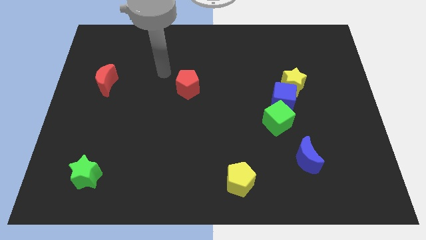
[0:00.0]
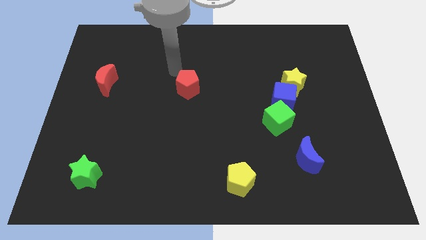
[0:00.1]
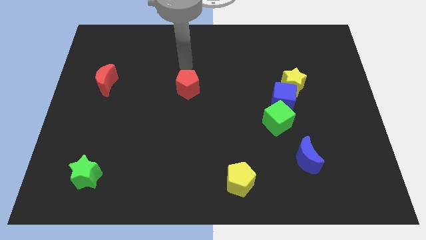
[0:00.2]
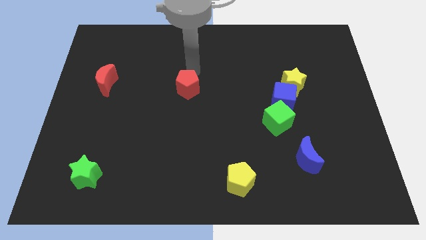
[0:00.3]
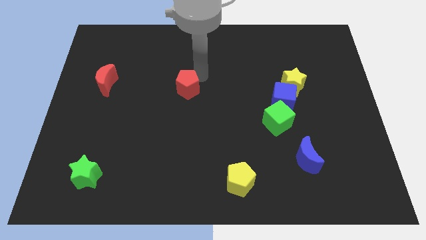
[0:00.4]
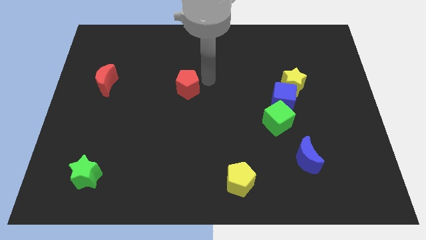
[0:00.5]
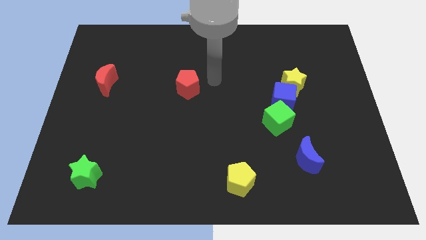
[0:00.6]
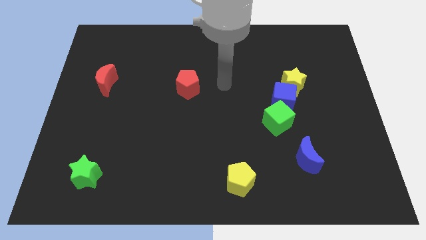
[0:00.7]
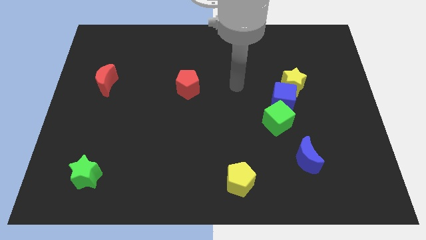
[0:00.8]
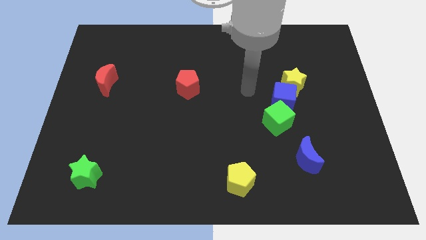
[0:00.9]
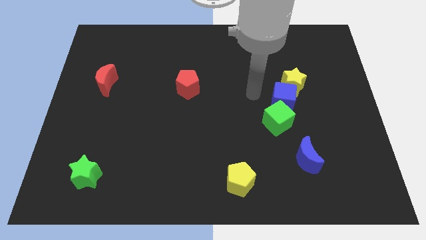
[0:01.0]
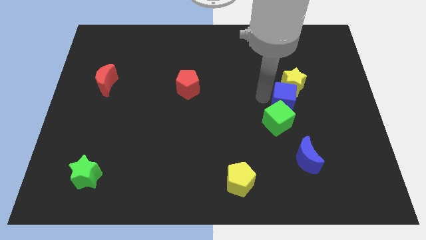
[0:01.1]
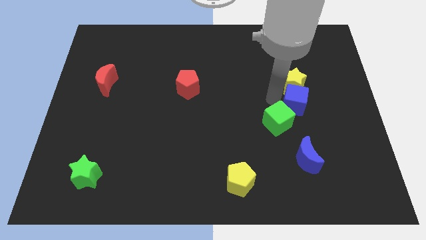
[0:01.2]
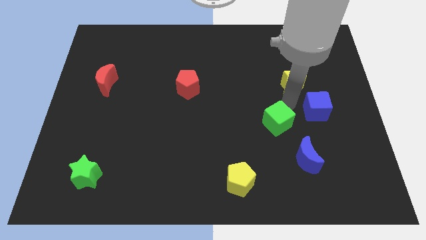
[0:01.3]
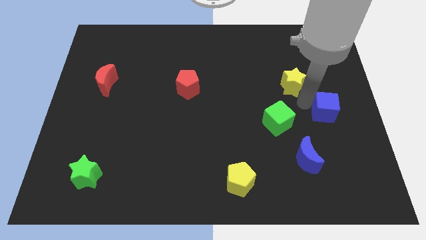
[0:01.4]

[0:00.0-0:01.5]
move the yellow star away from the blue cube

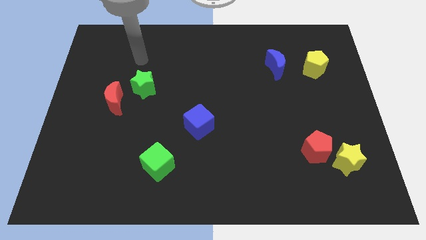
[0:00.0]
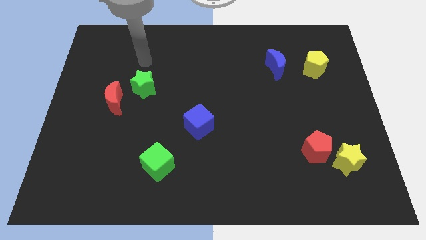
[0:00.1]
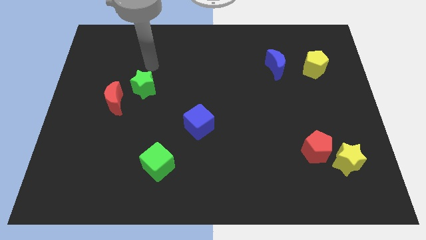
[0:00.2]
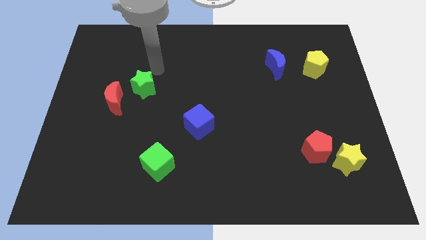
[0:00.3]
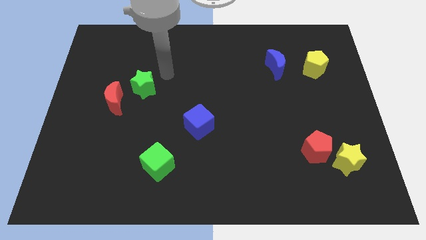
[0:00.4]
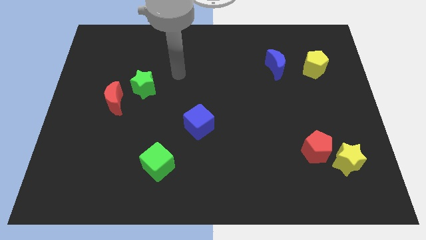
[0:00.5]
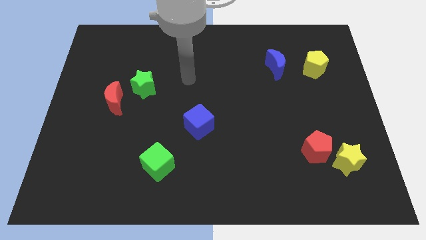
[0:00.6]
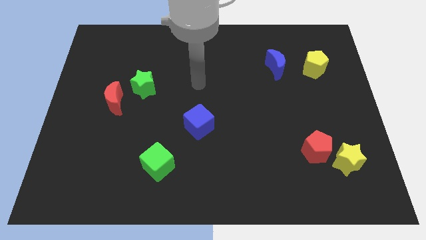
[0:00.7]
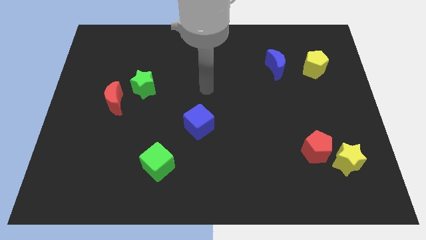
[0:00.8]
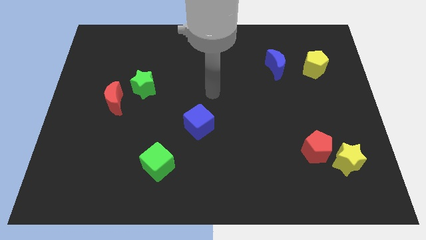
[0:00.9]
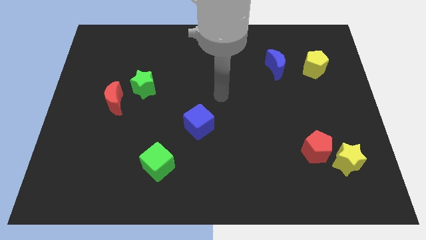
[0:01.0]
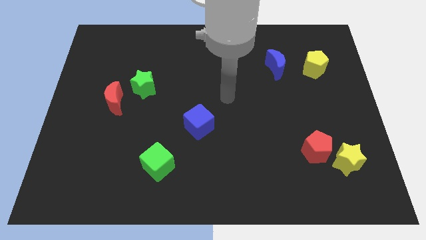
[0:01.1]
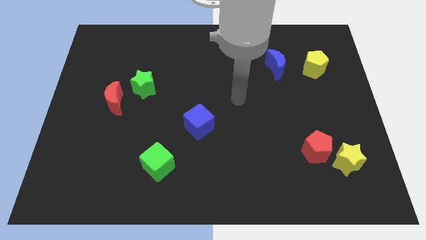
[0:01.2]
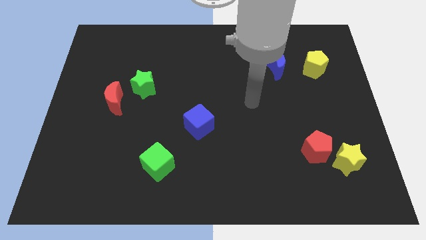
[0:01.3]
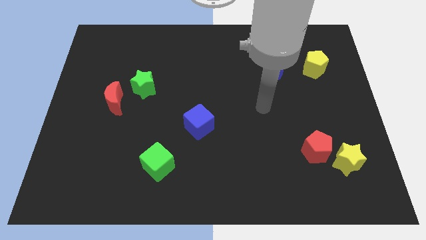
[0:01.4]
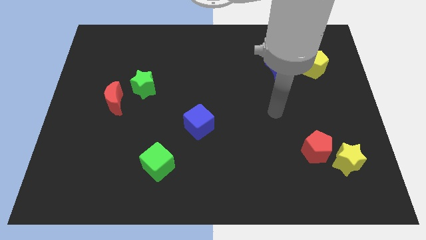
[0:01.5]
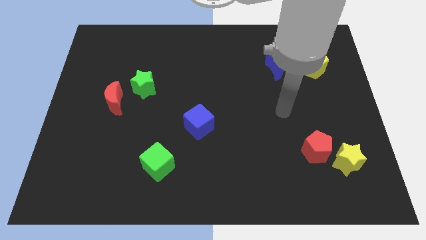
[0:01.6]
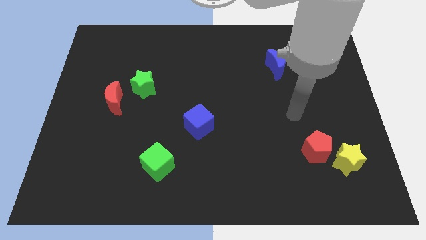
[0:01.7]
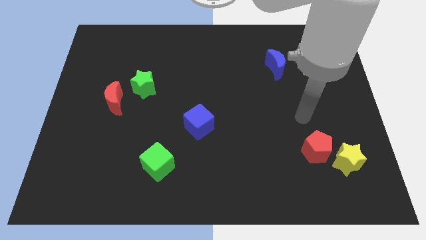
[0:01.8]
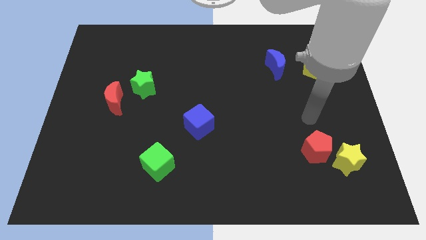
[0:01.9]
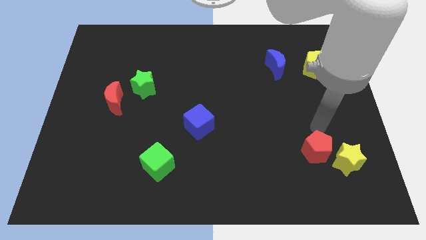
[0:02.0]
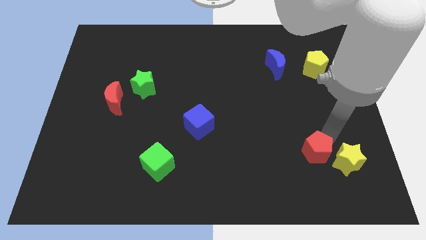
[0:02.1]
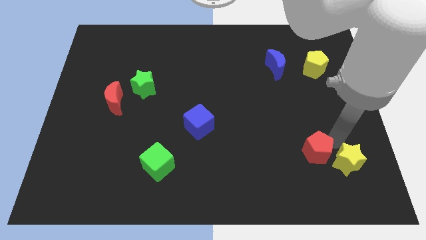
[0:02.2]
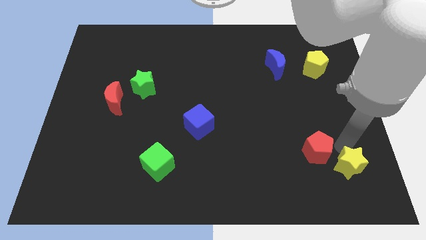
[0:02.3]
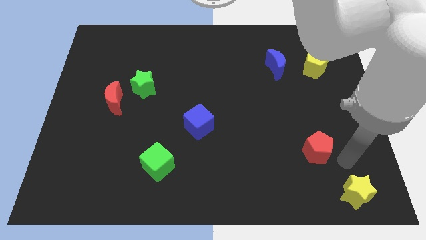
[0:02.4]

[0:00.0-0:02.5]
separate the red pentagon from the yellow star

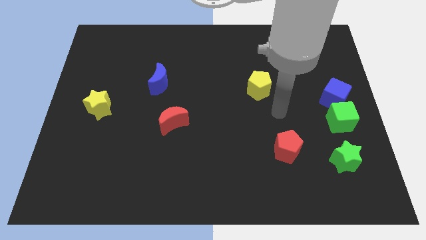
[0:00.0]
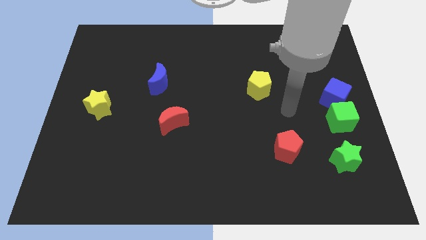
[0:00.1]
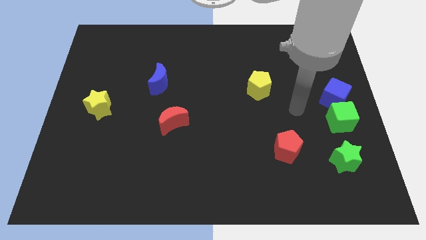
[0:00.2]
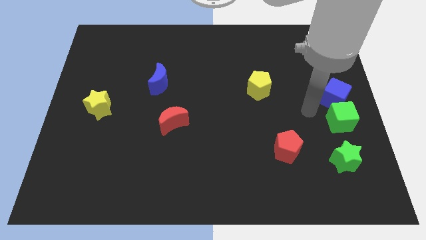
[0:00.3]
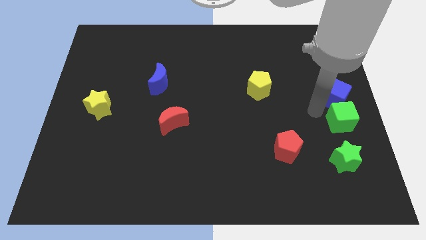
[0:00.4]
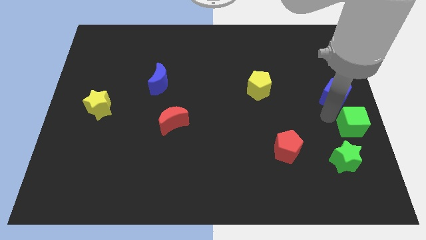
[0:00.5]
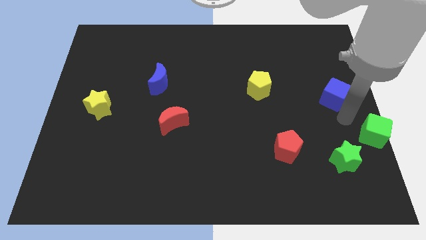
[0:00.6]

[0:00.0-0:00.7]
pull the blue cube apart from the green cube

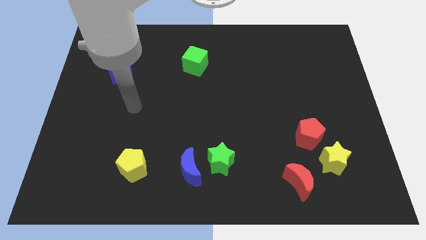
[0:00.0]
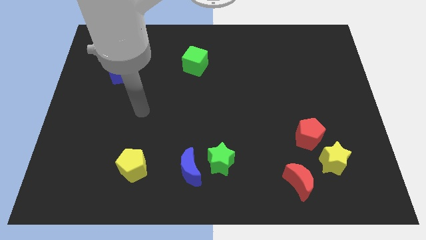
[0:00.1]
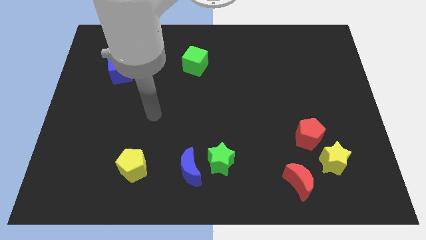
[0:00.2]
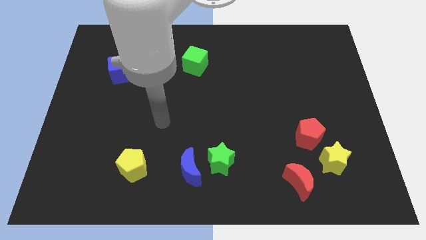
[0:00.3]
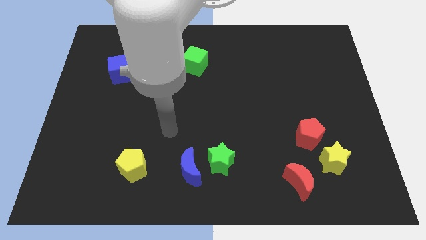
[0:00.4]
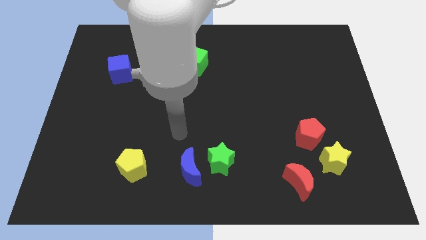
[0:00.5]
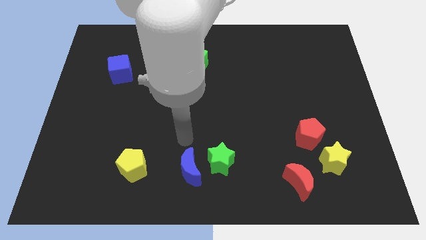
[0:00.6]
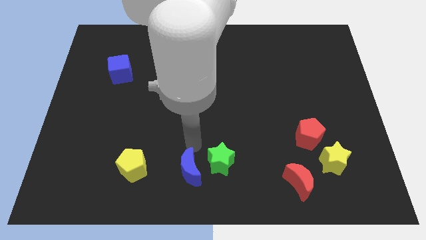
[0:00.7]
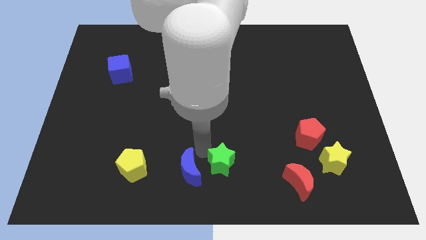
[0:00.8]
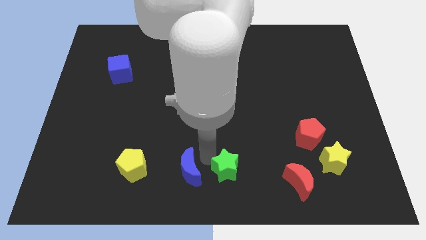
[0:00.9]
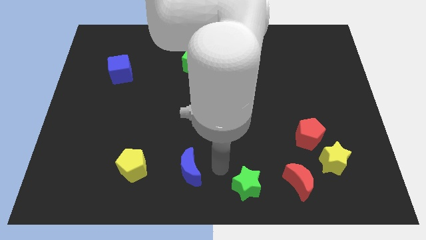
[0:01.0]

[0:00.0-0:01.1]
move the blue moon away from the green star

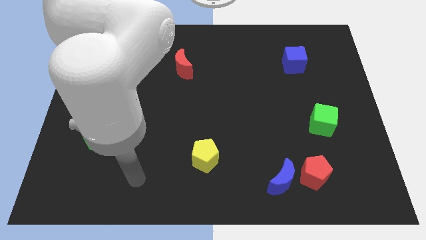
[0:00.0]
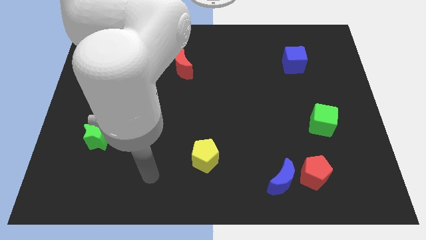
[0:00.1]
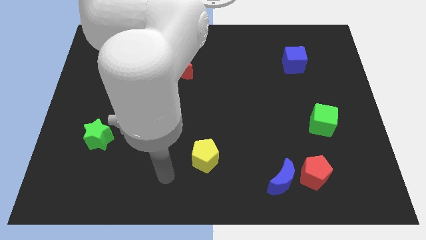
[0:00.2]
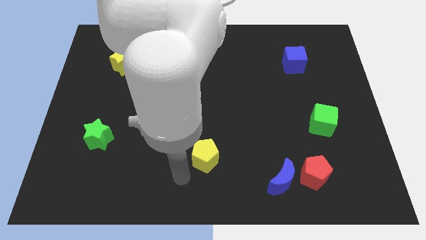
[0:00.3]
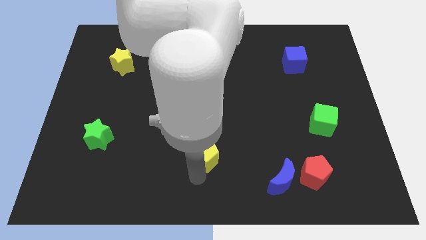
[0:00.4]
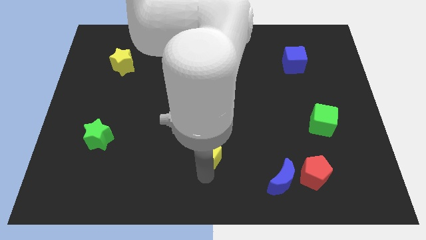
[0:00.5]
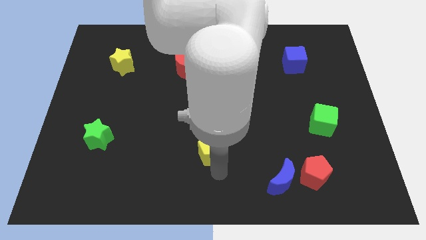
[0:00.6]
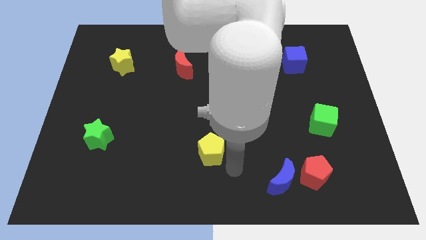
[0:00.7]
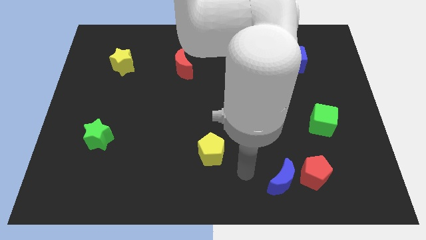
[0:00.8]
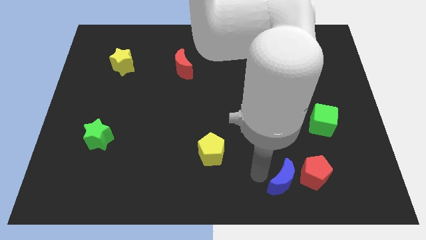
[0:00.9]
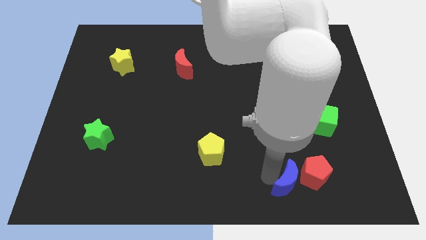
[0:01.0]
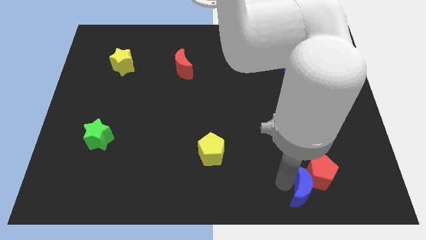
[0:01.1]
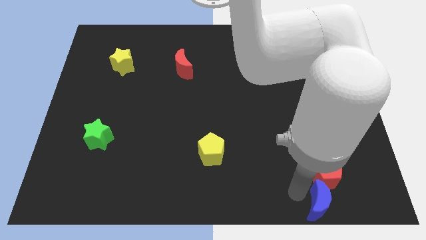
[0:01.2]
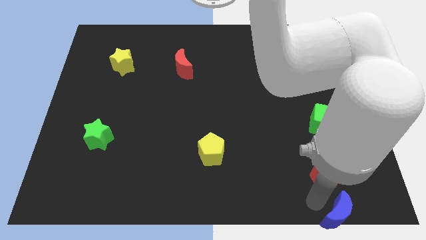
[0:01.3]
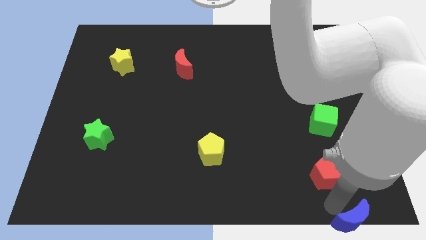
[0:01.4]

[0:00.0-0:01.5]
move the red pentagon away from the blue moon

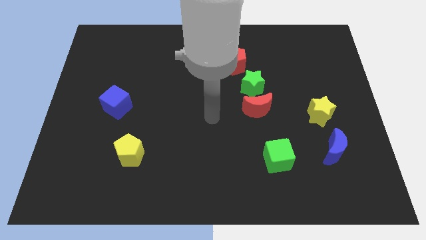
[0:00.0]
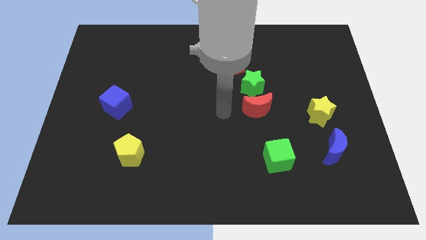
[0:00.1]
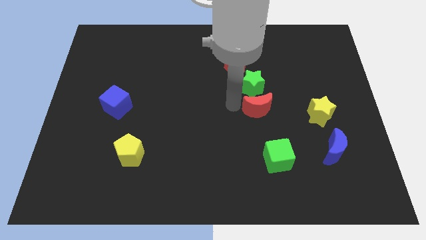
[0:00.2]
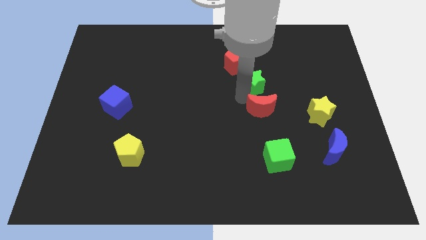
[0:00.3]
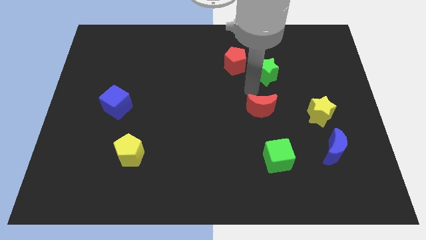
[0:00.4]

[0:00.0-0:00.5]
pull the red moon apart from the green star

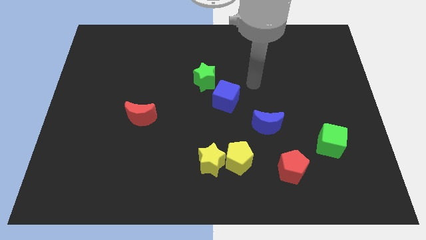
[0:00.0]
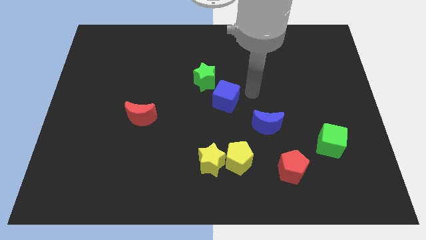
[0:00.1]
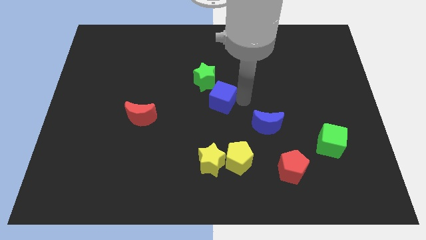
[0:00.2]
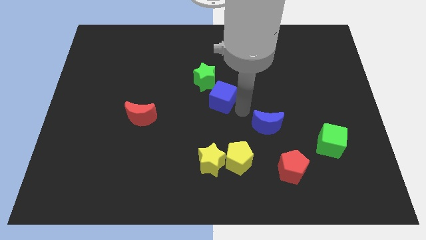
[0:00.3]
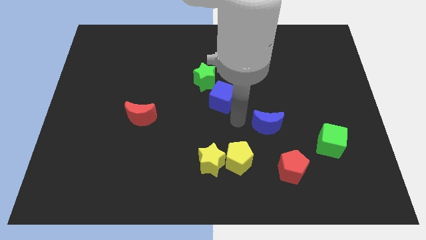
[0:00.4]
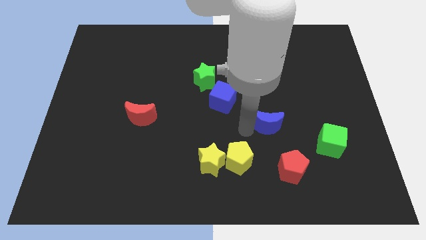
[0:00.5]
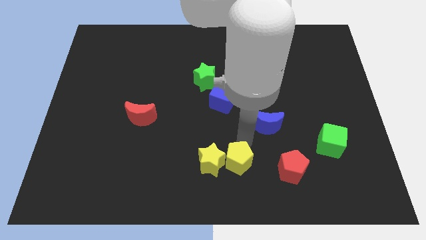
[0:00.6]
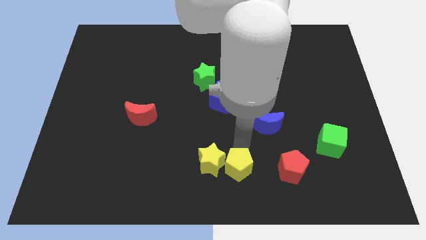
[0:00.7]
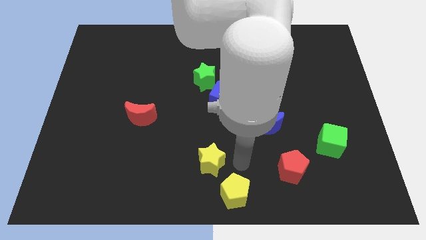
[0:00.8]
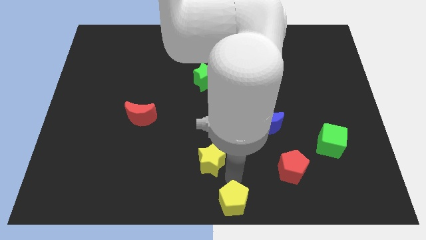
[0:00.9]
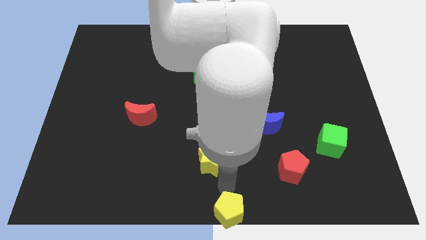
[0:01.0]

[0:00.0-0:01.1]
separate the yellow star from the yellow pentagon

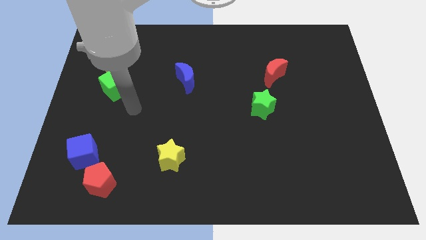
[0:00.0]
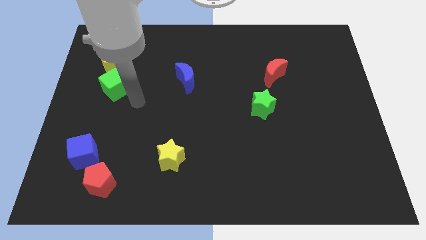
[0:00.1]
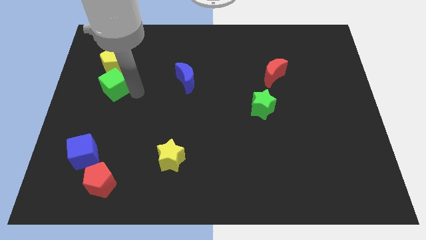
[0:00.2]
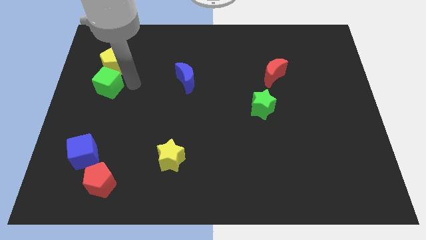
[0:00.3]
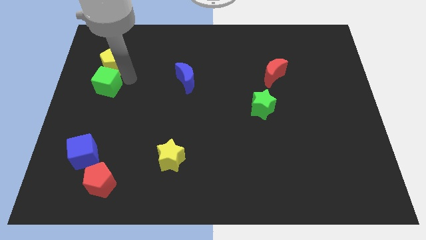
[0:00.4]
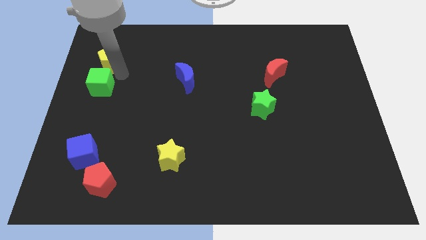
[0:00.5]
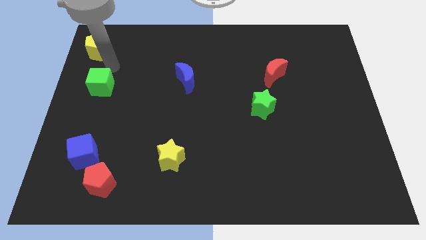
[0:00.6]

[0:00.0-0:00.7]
separate the green cube from the yellow pentagon
